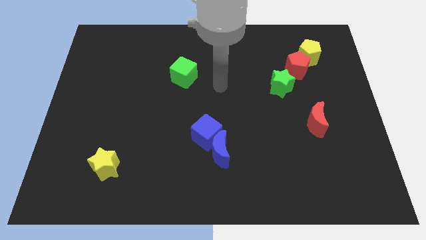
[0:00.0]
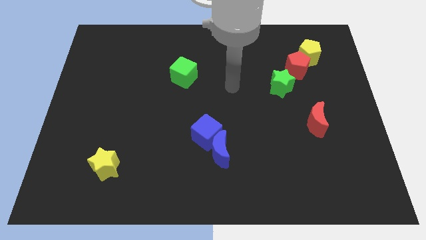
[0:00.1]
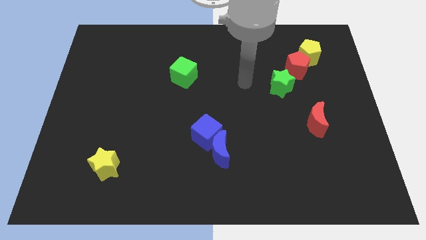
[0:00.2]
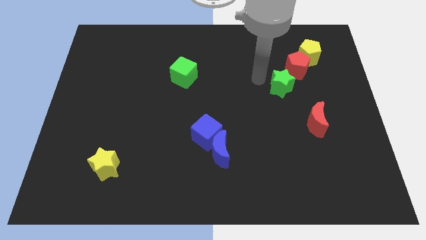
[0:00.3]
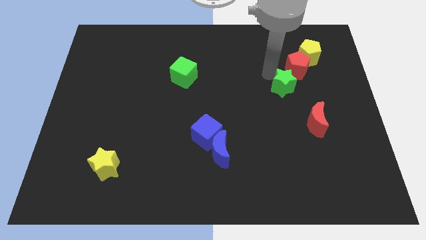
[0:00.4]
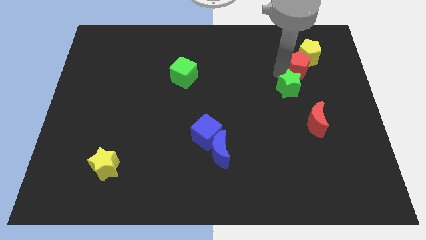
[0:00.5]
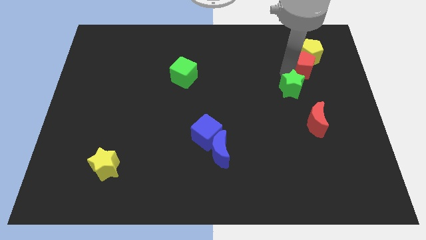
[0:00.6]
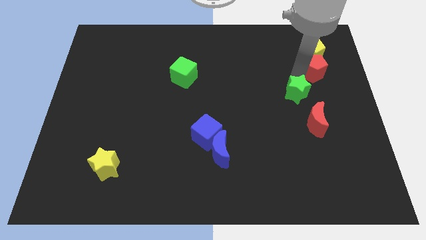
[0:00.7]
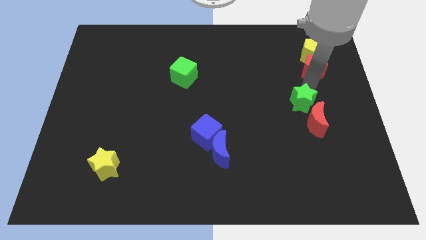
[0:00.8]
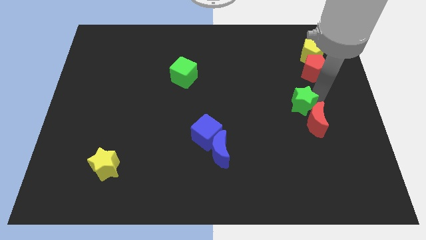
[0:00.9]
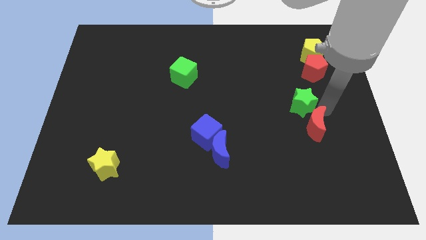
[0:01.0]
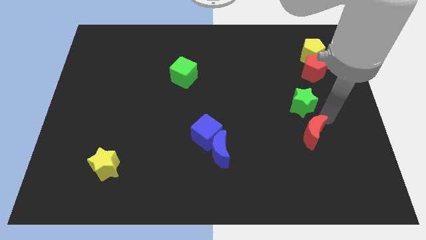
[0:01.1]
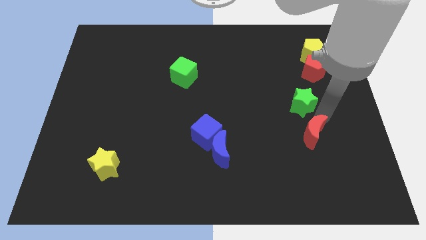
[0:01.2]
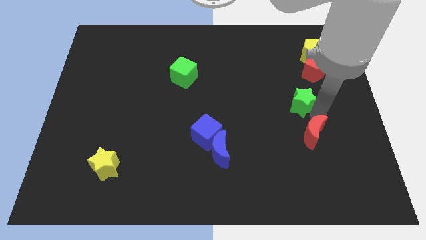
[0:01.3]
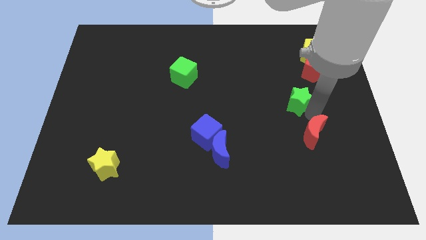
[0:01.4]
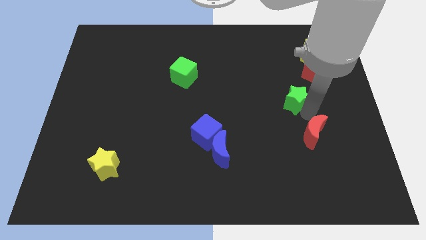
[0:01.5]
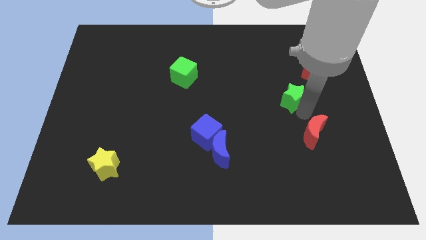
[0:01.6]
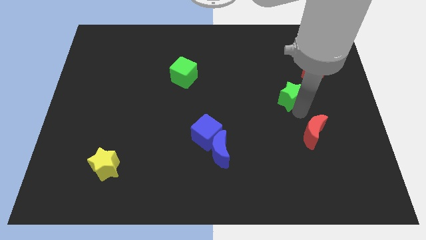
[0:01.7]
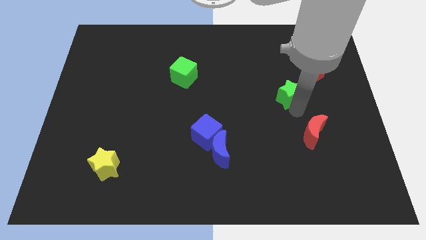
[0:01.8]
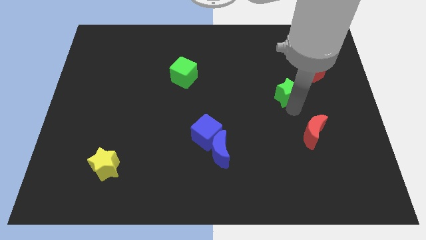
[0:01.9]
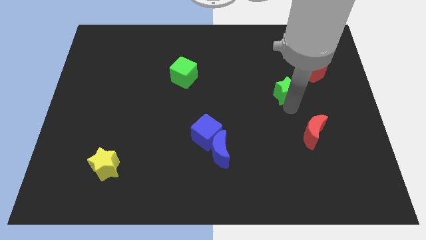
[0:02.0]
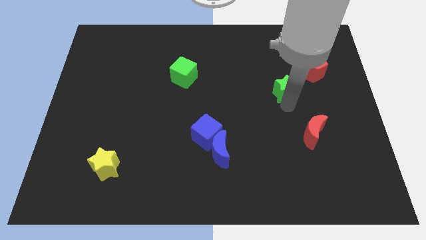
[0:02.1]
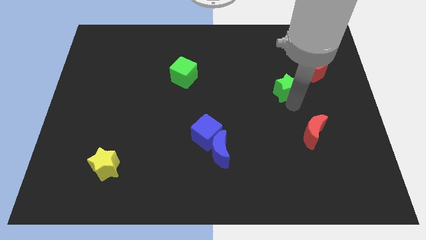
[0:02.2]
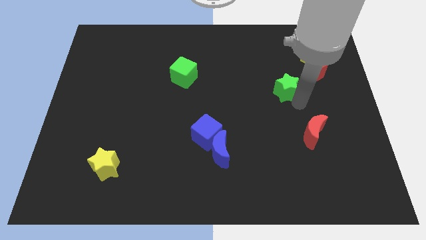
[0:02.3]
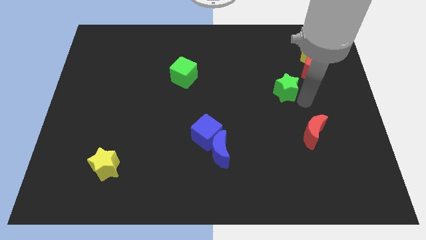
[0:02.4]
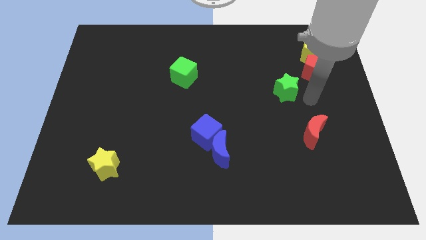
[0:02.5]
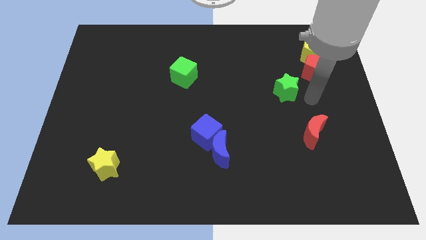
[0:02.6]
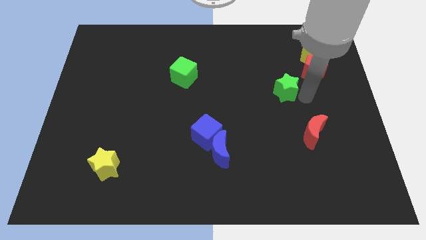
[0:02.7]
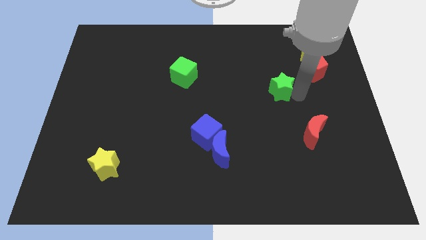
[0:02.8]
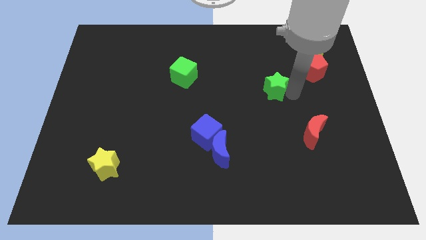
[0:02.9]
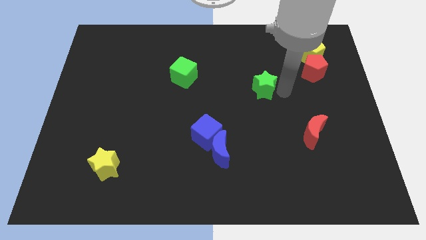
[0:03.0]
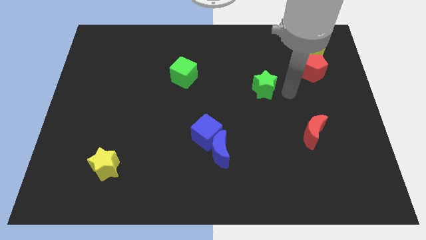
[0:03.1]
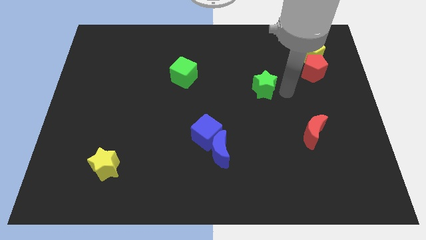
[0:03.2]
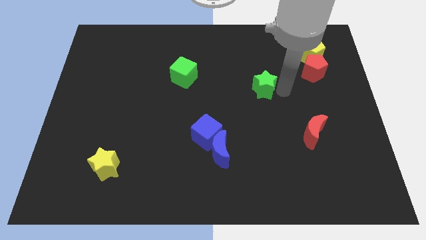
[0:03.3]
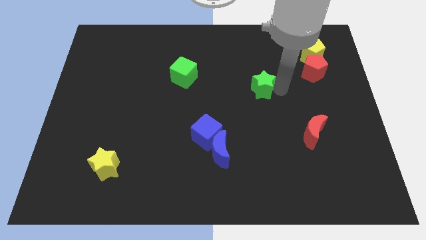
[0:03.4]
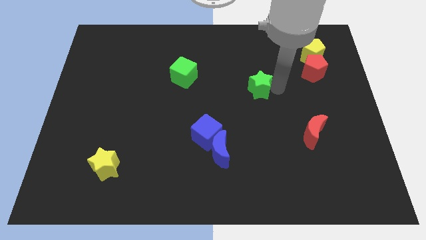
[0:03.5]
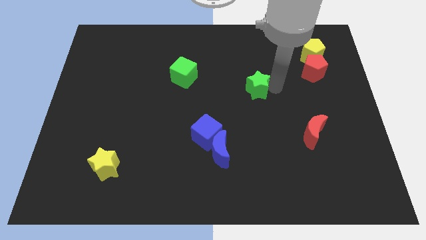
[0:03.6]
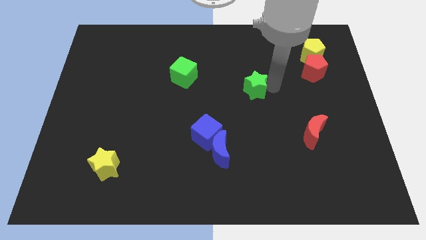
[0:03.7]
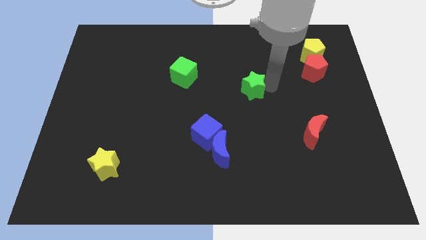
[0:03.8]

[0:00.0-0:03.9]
push the green star to the left a little bit

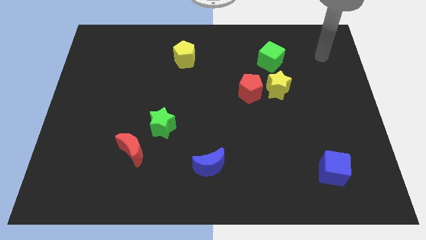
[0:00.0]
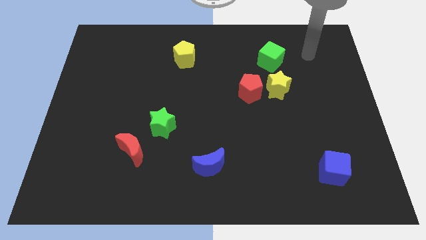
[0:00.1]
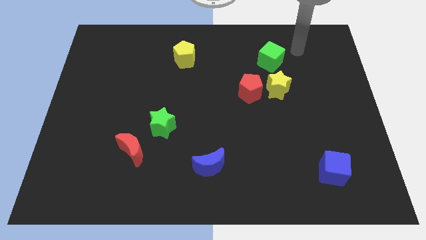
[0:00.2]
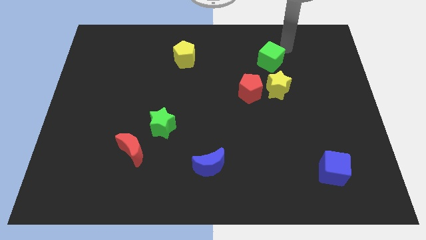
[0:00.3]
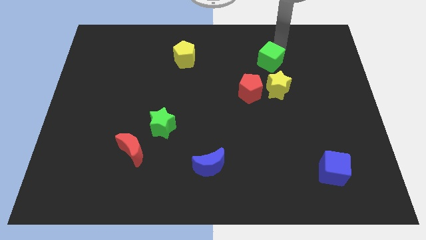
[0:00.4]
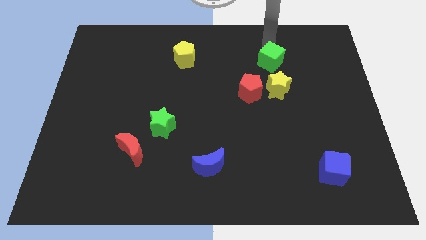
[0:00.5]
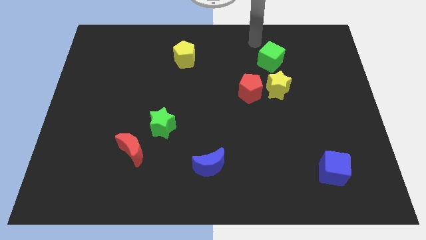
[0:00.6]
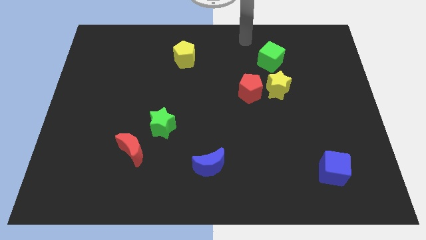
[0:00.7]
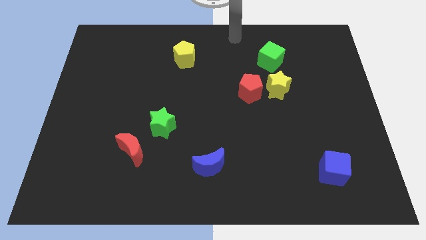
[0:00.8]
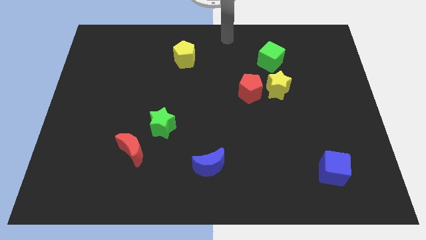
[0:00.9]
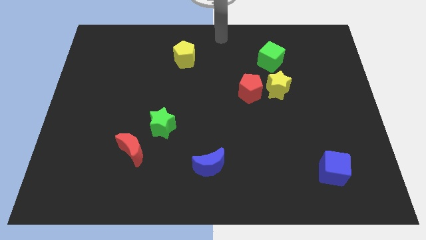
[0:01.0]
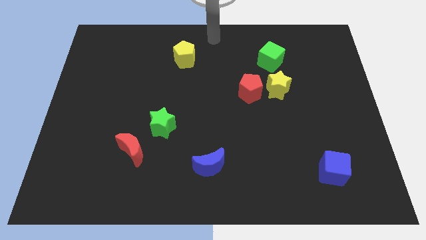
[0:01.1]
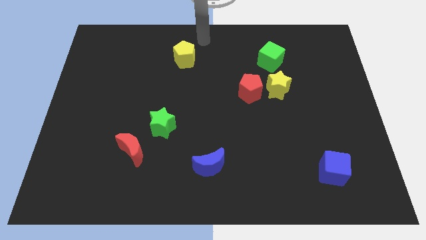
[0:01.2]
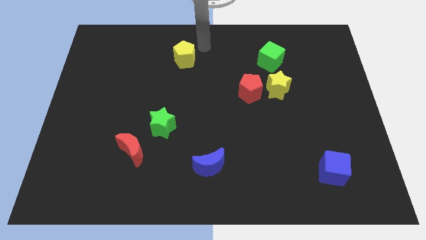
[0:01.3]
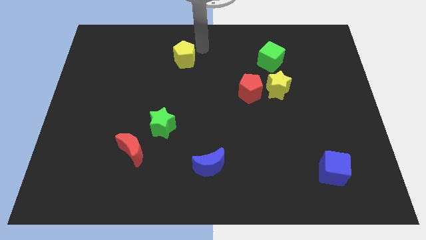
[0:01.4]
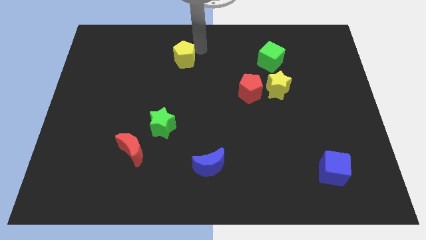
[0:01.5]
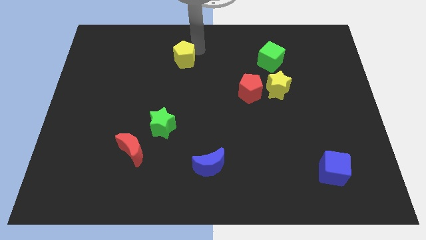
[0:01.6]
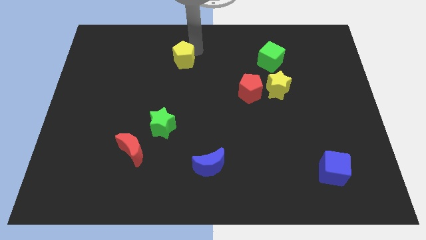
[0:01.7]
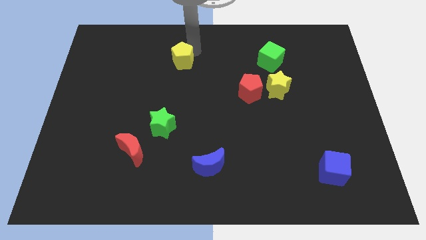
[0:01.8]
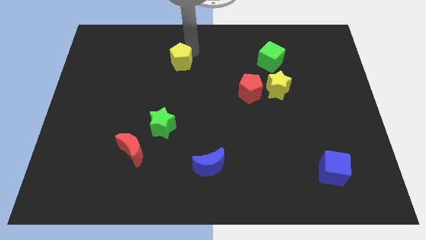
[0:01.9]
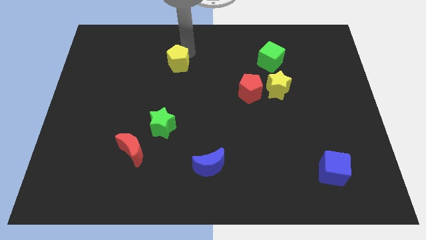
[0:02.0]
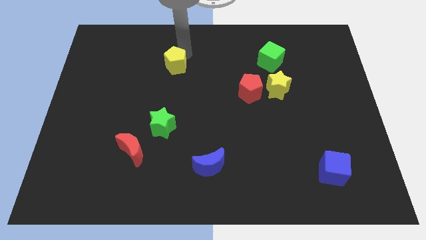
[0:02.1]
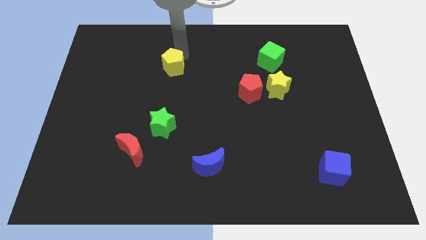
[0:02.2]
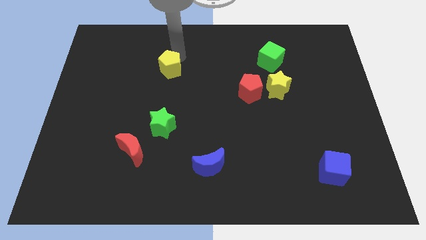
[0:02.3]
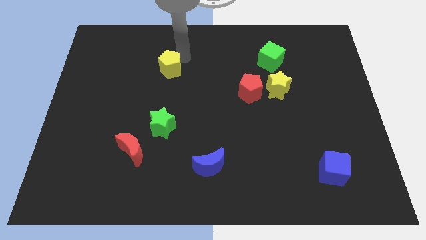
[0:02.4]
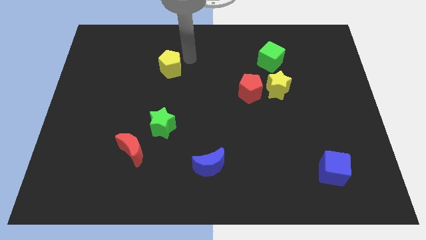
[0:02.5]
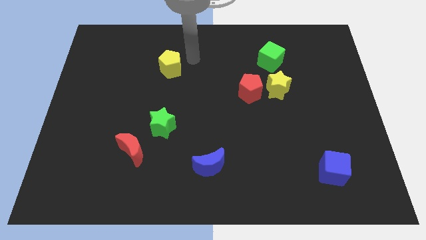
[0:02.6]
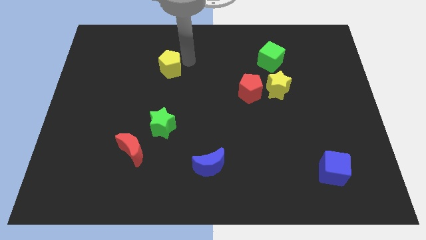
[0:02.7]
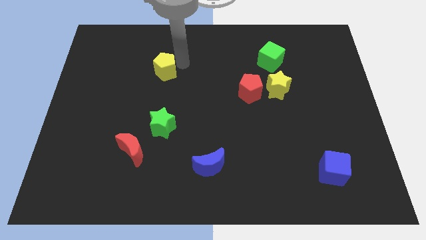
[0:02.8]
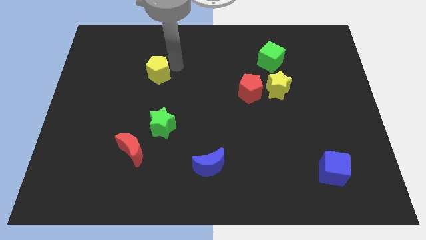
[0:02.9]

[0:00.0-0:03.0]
slide the yellow pentagon downwards and then to the left somewhat

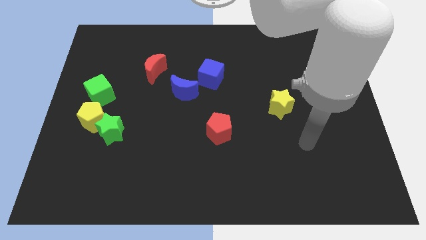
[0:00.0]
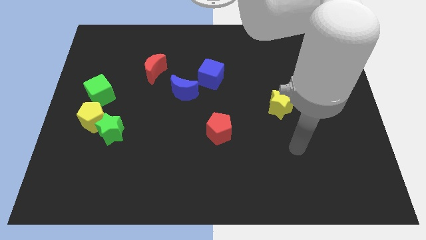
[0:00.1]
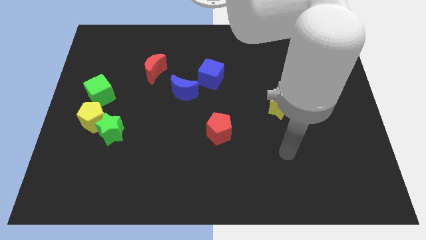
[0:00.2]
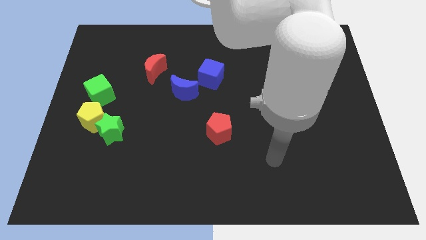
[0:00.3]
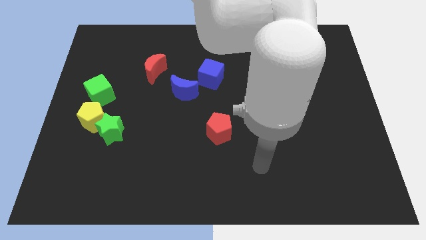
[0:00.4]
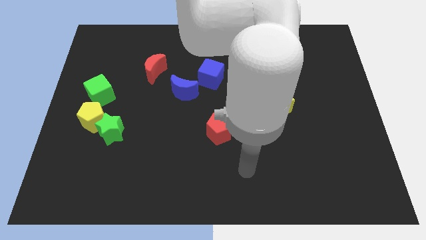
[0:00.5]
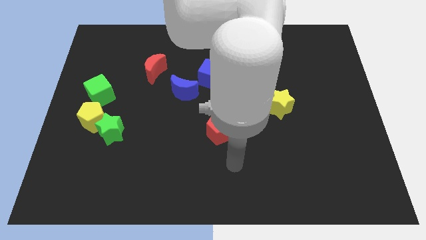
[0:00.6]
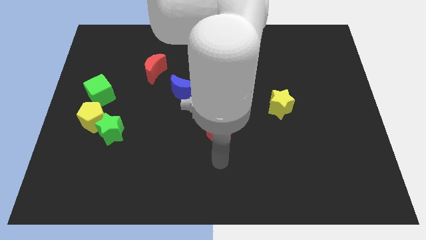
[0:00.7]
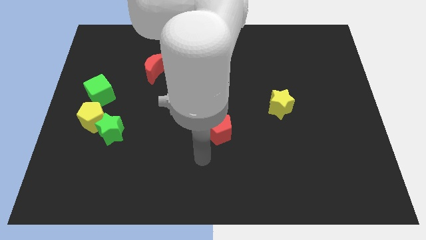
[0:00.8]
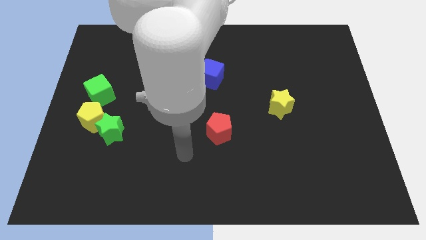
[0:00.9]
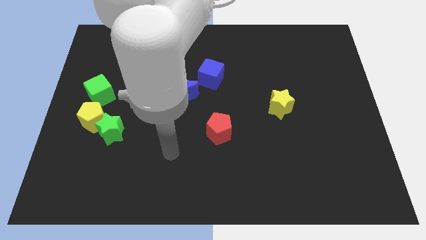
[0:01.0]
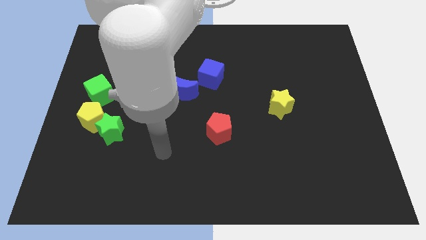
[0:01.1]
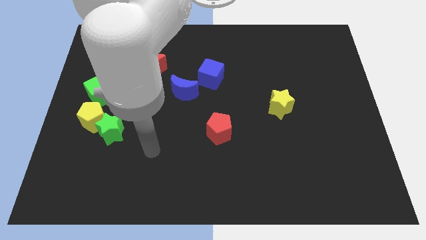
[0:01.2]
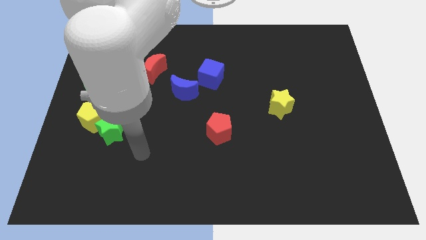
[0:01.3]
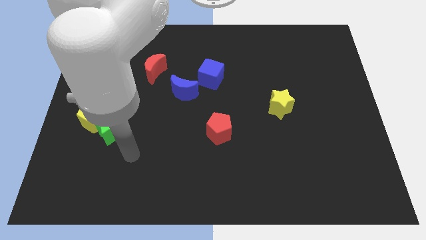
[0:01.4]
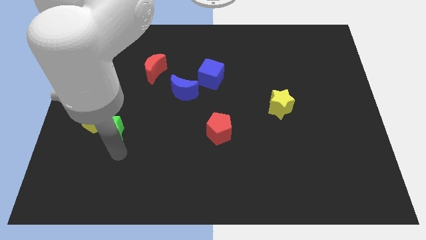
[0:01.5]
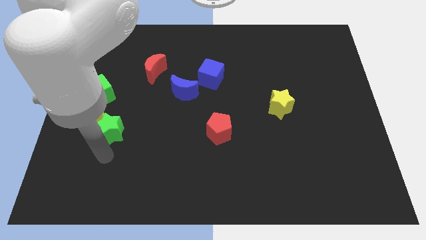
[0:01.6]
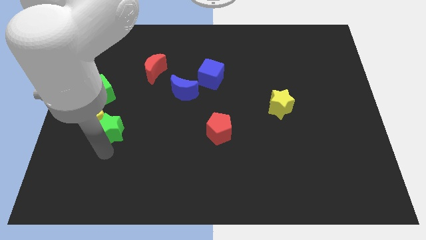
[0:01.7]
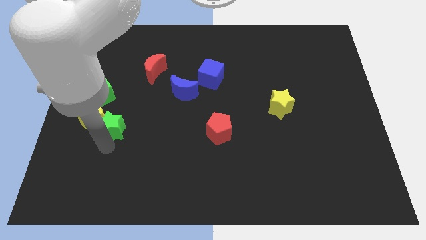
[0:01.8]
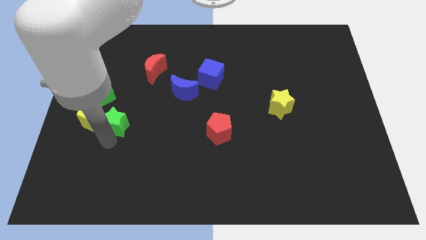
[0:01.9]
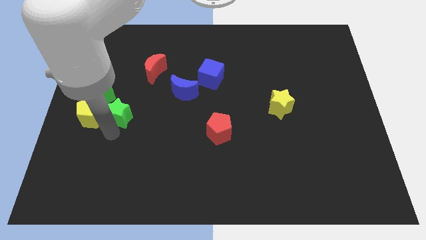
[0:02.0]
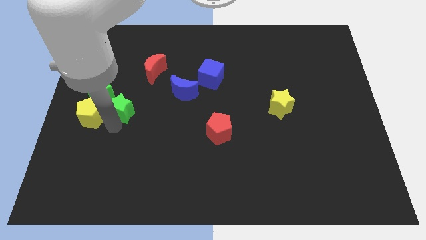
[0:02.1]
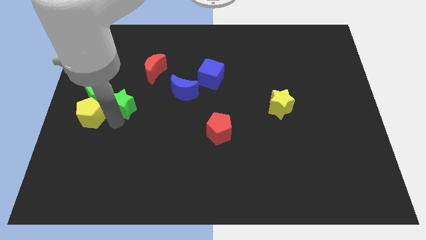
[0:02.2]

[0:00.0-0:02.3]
move the green star a little bit up
